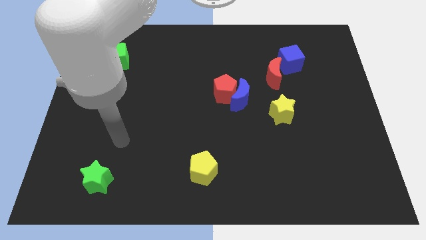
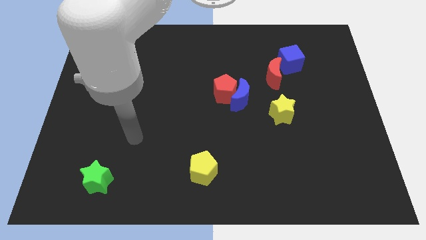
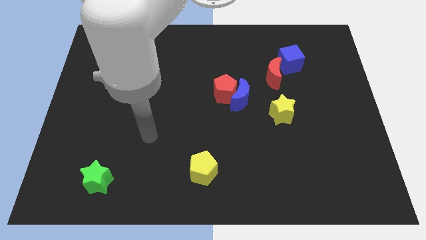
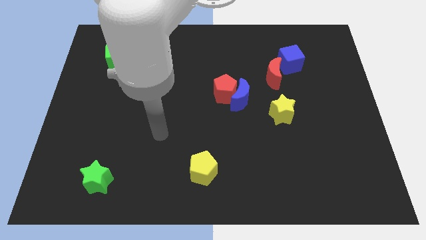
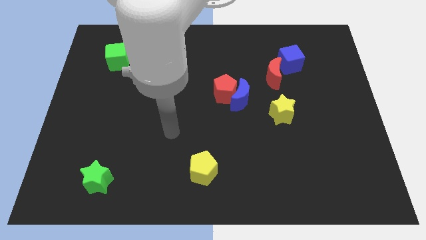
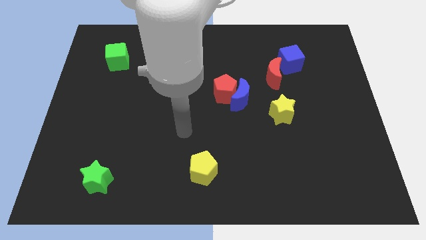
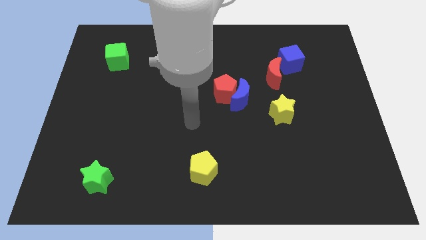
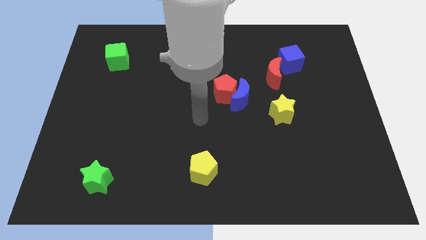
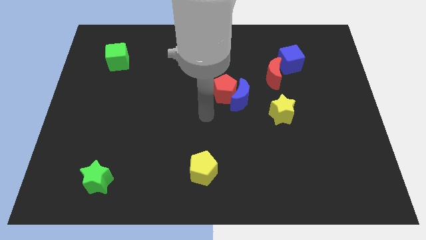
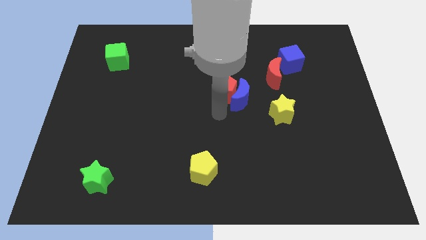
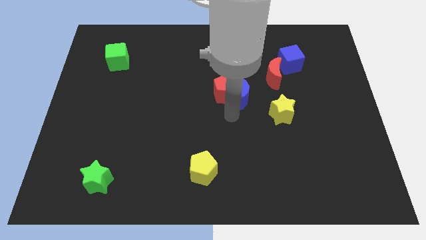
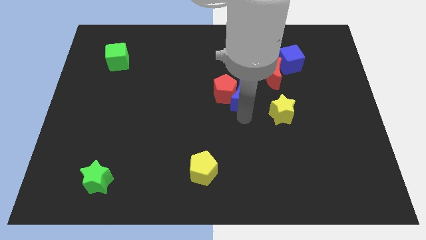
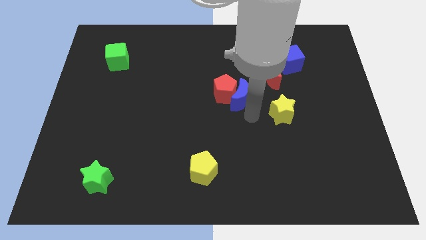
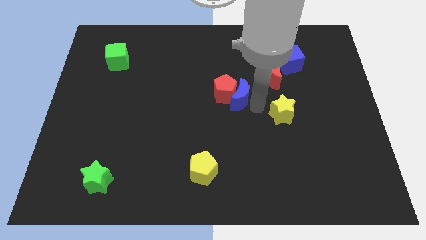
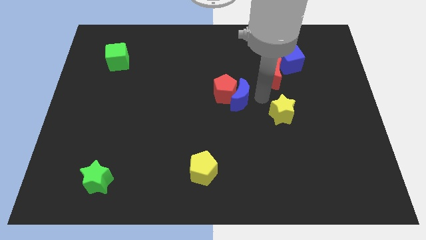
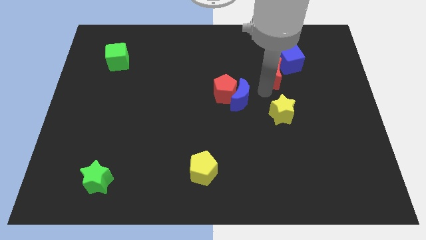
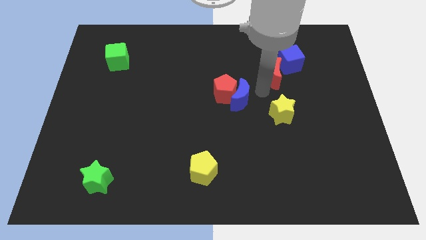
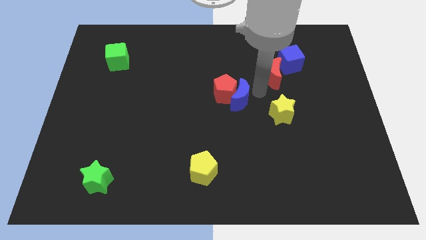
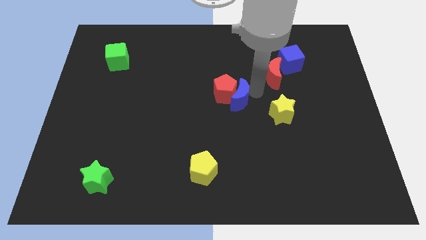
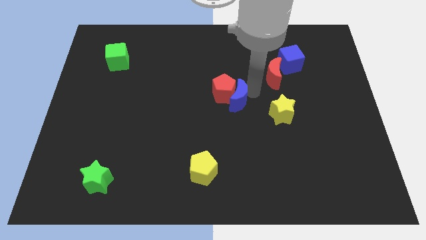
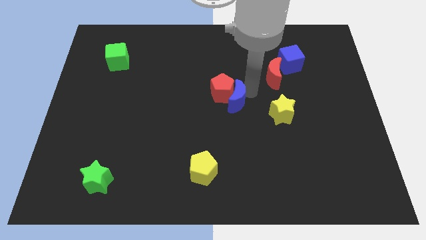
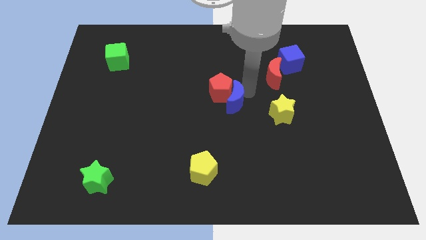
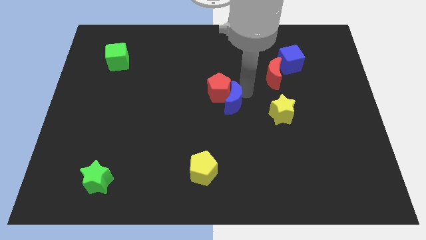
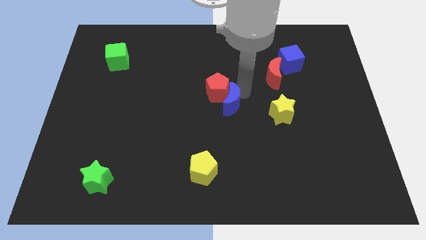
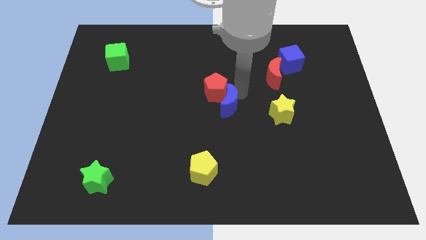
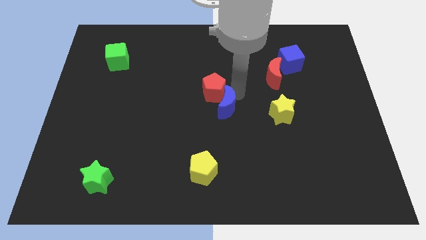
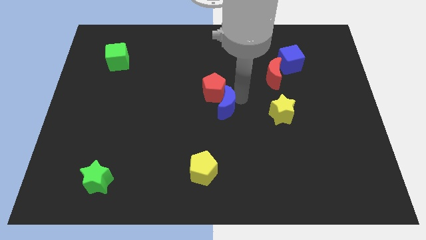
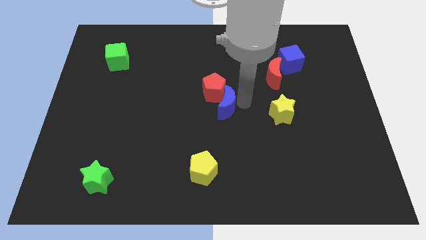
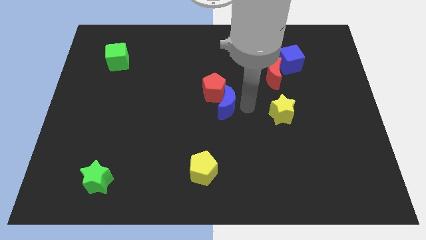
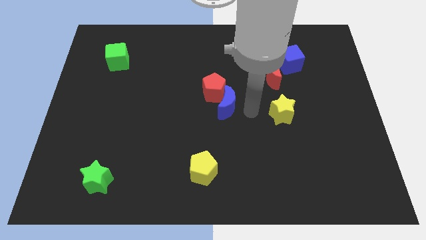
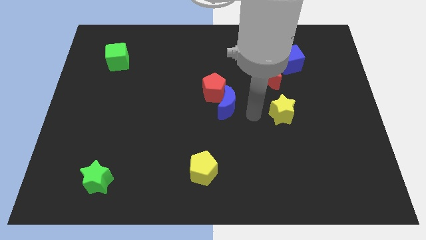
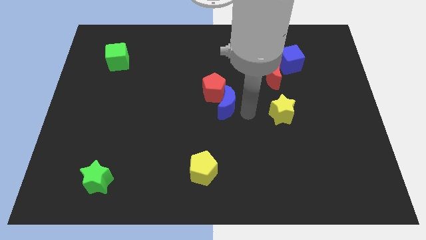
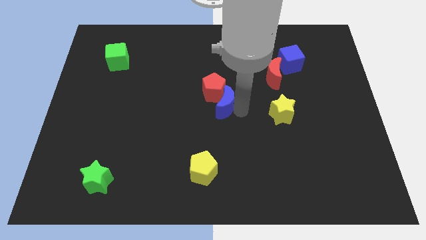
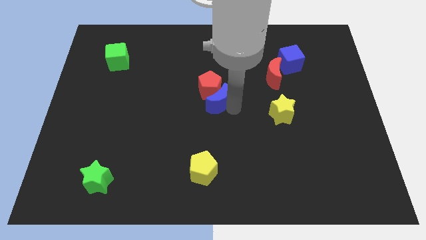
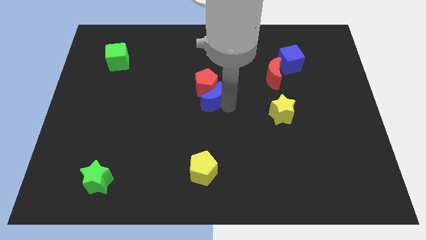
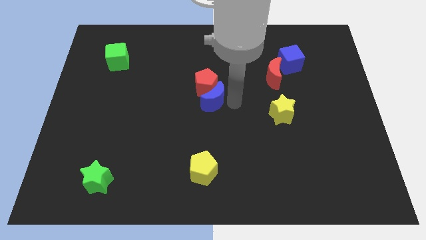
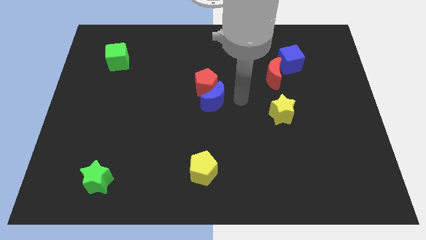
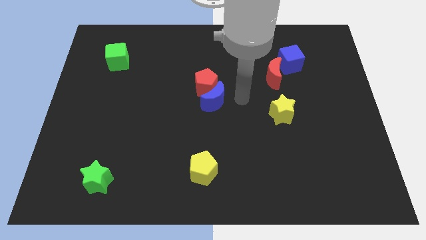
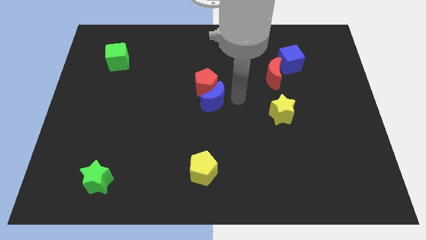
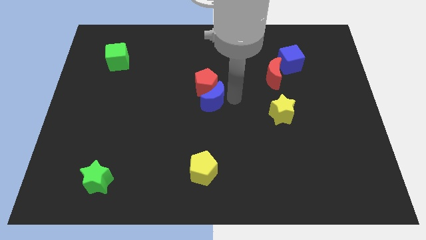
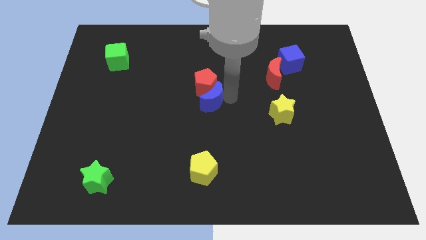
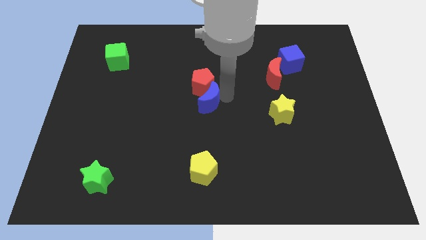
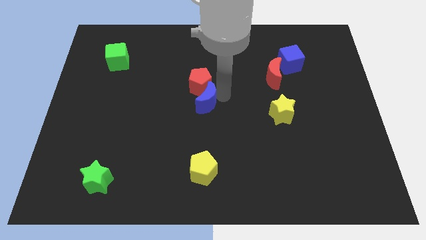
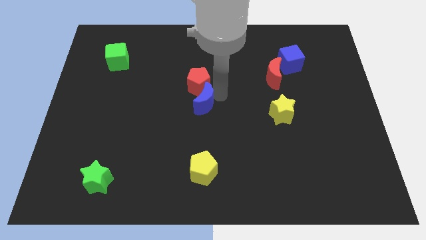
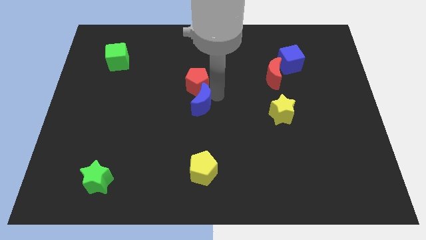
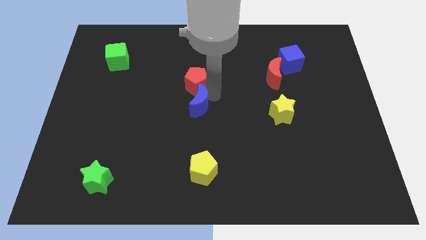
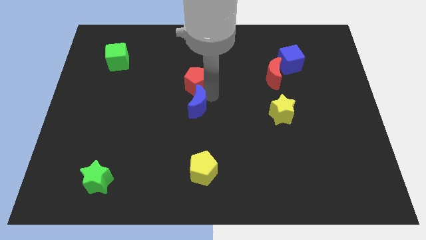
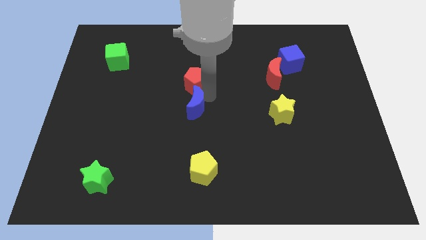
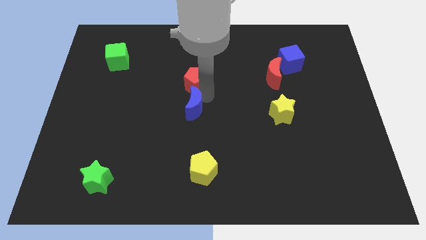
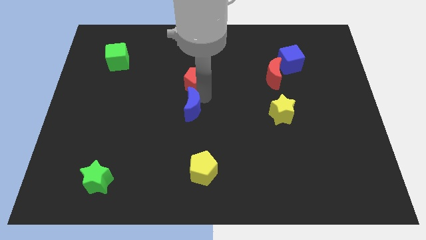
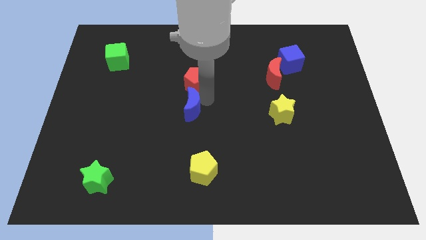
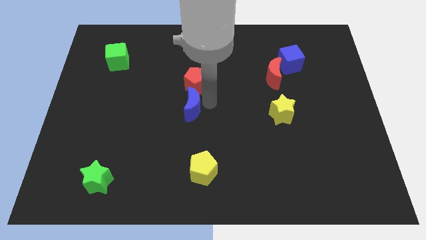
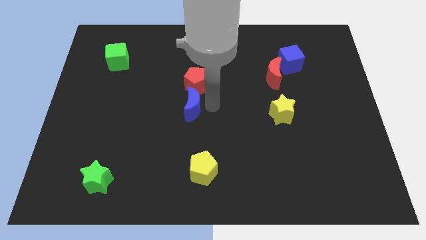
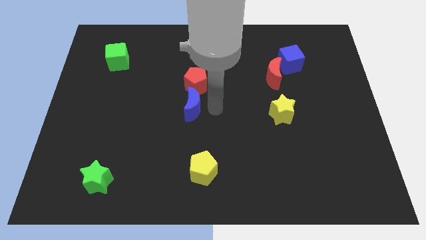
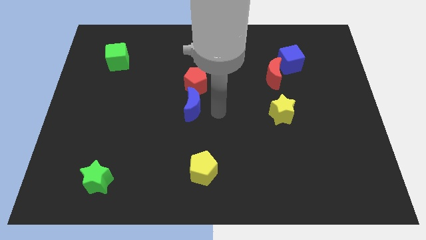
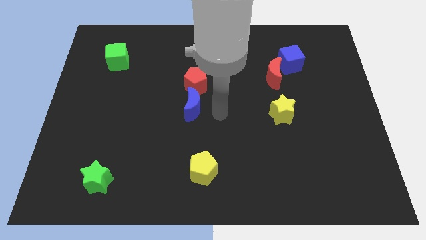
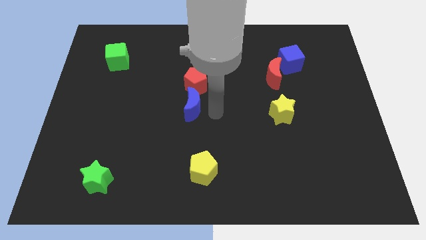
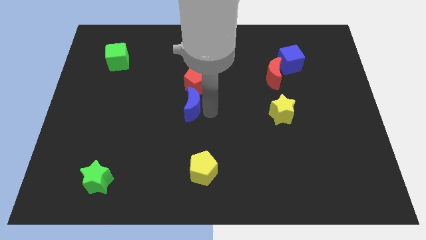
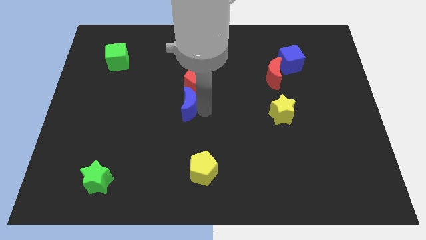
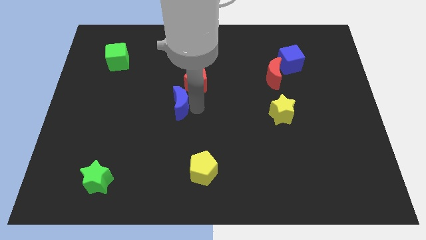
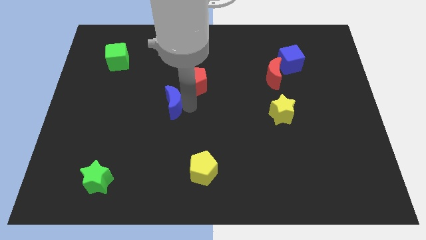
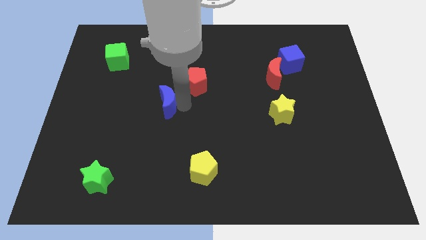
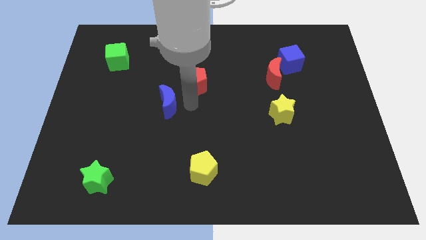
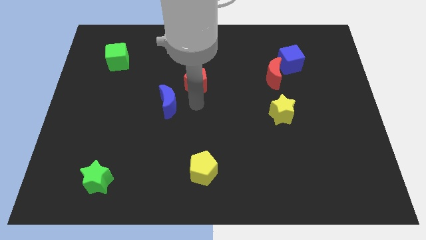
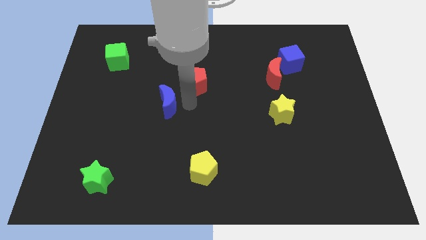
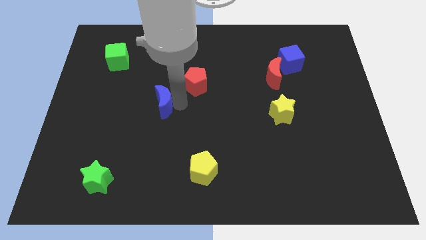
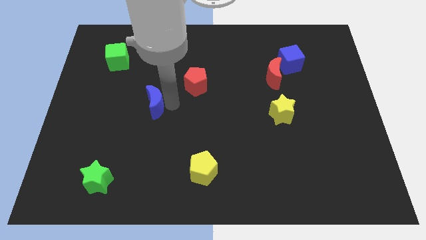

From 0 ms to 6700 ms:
slide the blue moon to the left

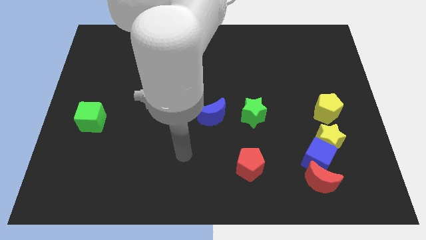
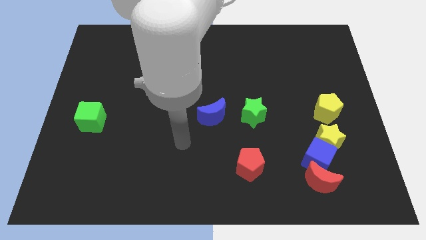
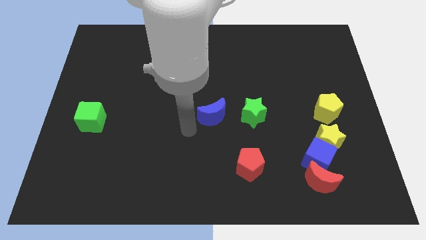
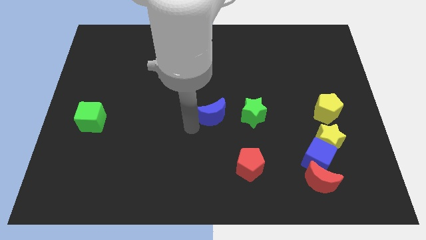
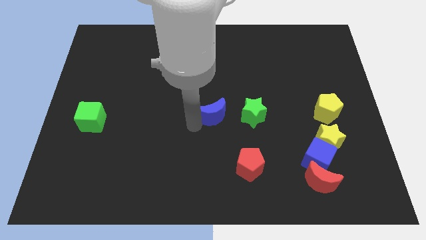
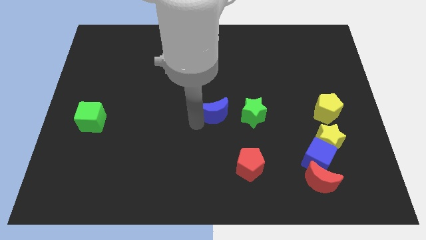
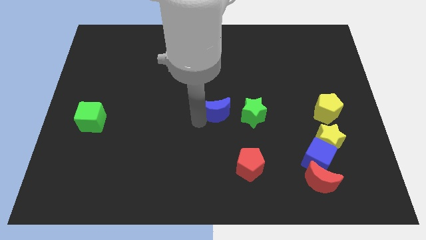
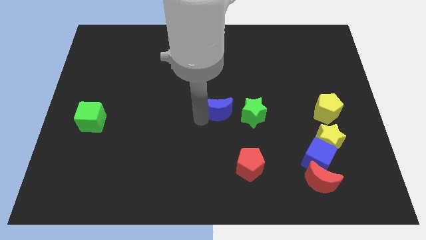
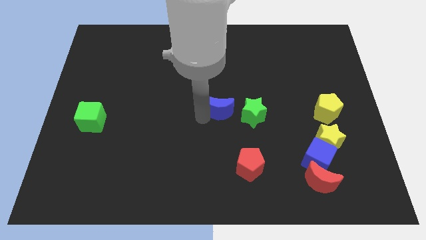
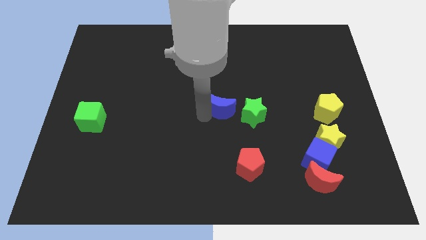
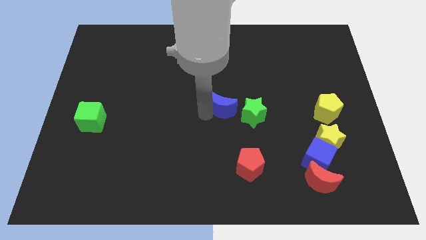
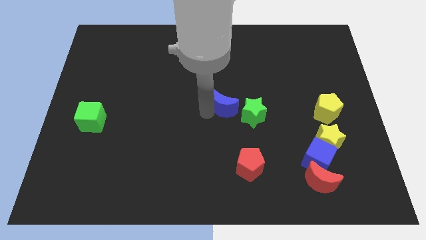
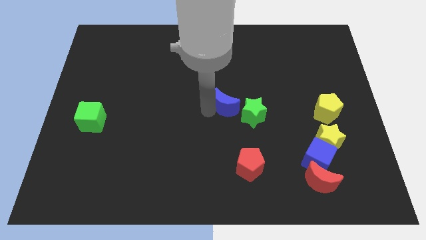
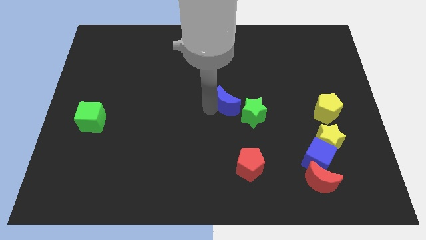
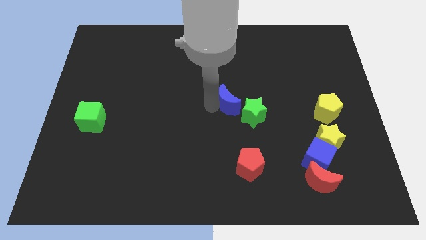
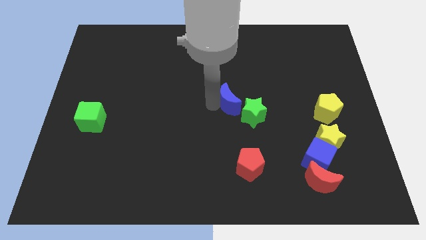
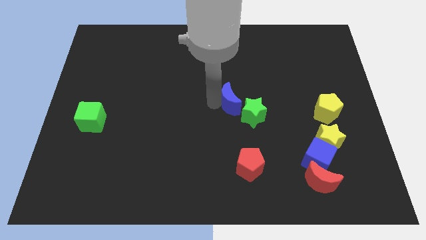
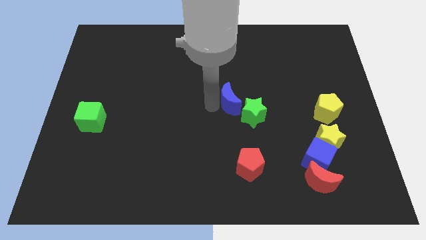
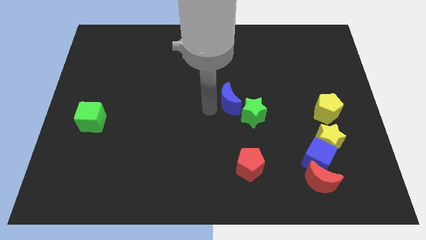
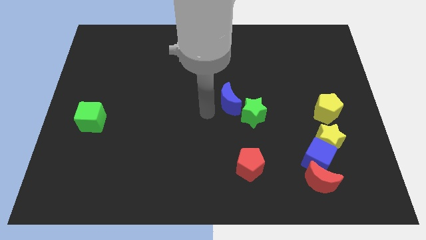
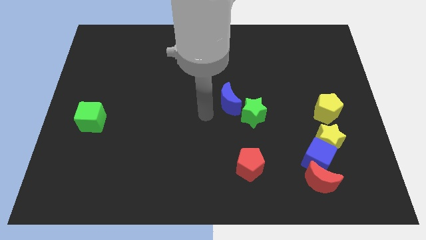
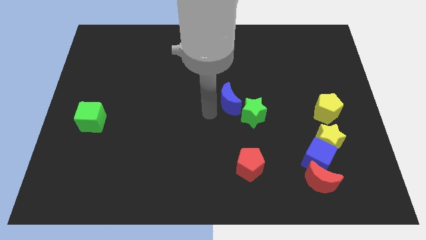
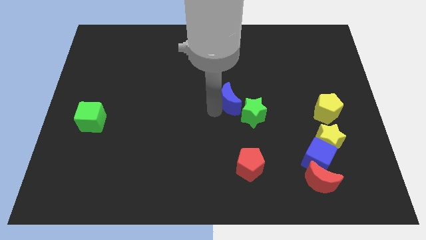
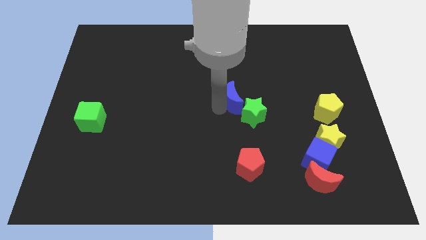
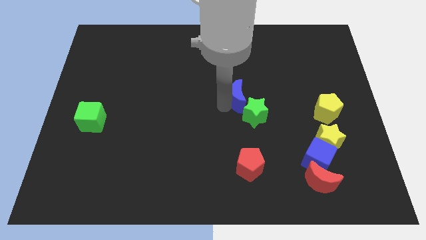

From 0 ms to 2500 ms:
move the blue moon a bit up and to the right diagonally
